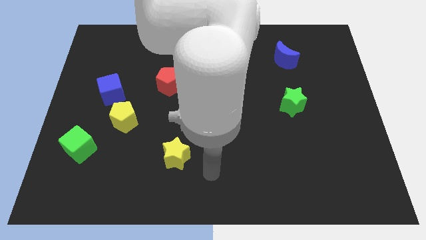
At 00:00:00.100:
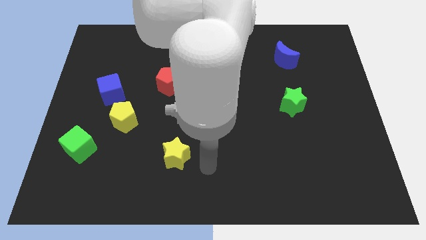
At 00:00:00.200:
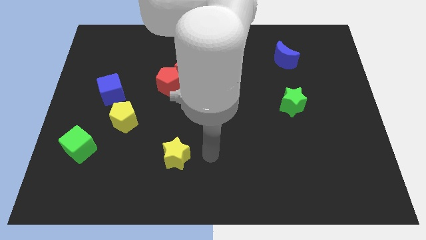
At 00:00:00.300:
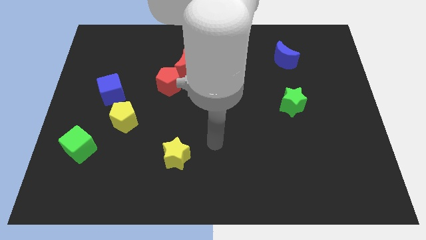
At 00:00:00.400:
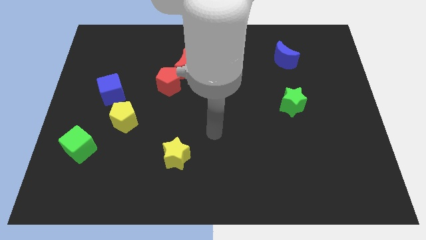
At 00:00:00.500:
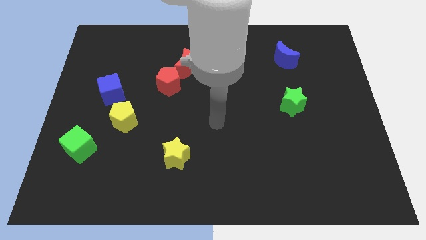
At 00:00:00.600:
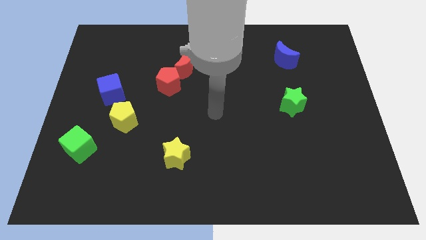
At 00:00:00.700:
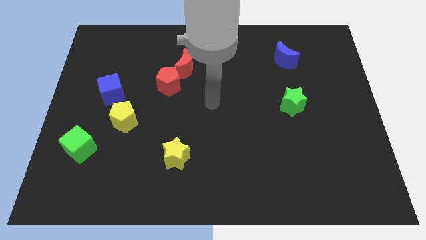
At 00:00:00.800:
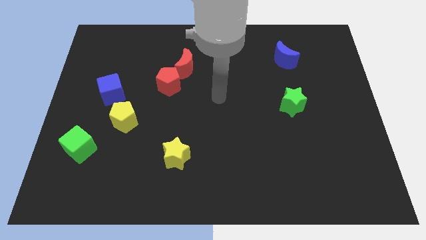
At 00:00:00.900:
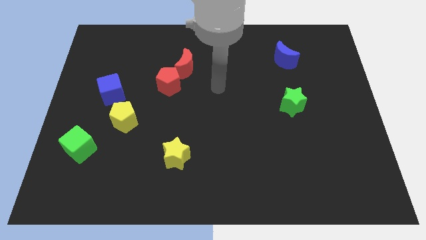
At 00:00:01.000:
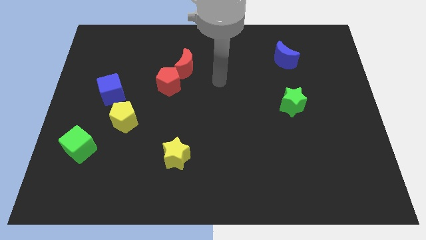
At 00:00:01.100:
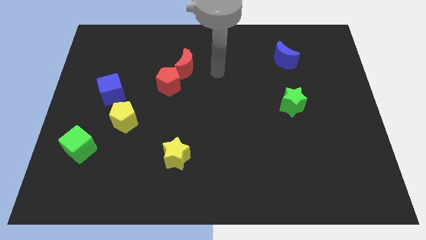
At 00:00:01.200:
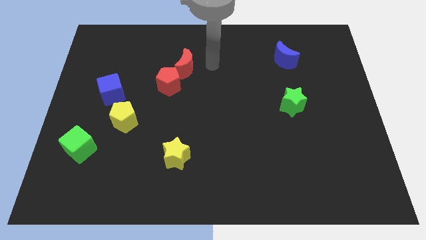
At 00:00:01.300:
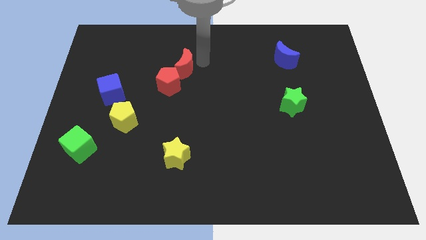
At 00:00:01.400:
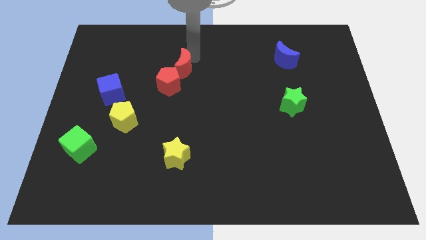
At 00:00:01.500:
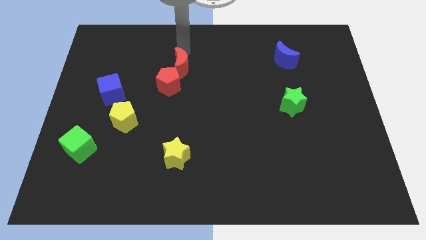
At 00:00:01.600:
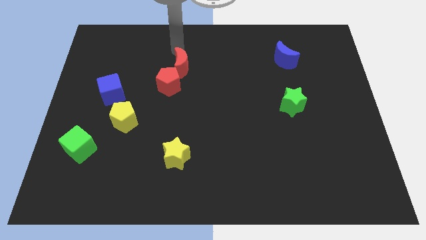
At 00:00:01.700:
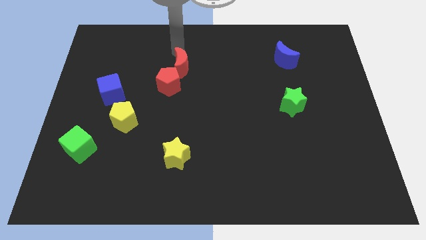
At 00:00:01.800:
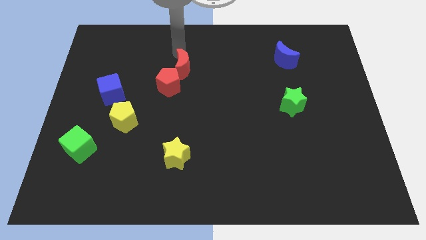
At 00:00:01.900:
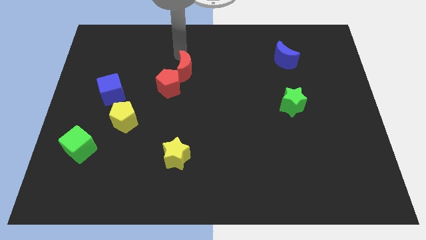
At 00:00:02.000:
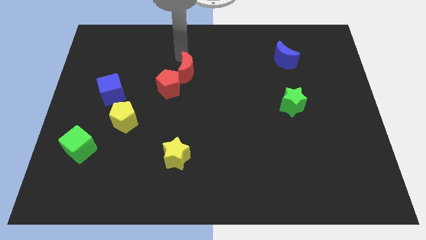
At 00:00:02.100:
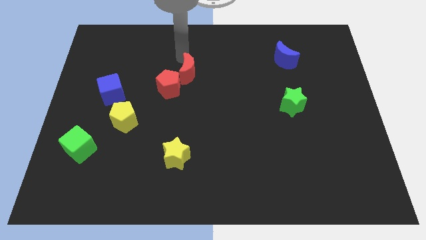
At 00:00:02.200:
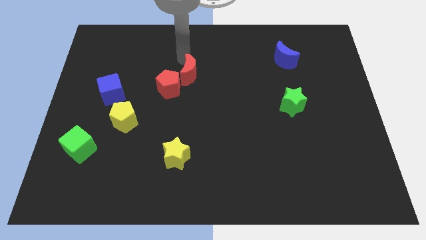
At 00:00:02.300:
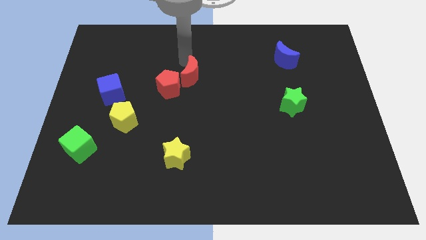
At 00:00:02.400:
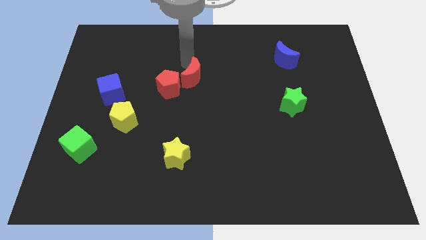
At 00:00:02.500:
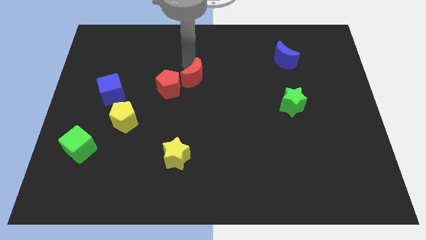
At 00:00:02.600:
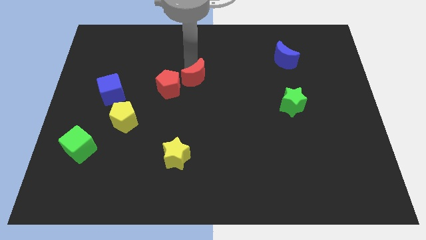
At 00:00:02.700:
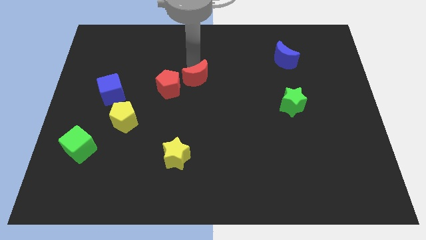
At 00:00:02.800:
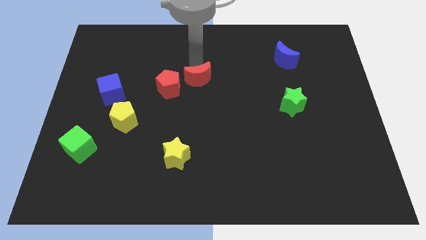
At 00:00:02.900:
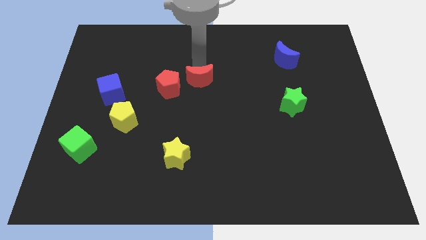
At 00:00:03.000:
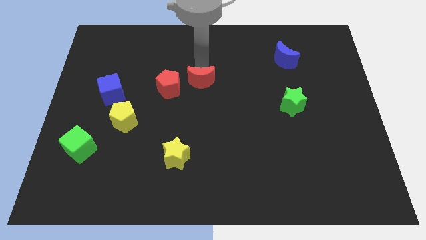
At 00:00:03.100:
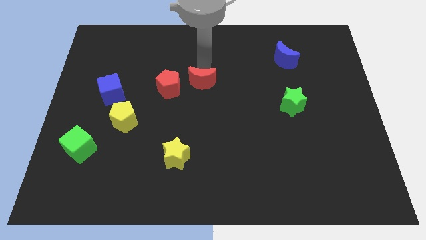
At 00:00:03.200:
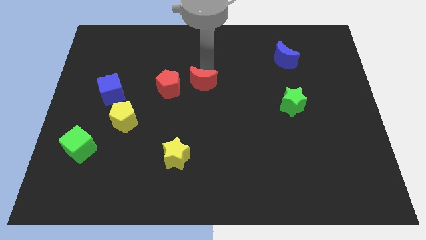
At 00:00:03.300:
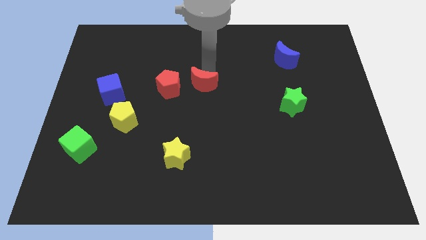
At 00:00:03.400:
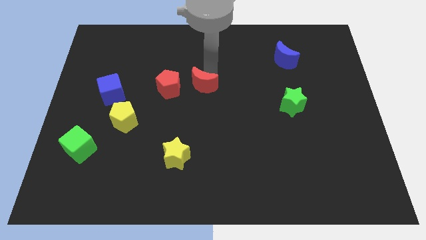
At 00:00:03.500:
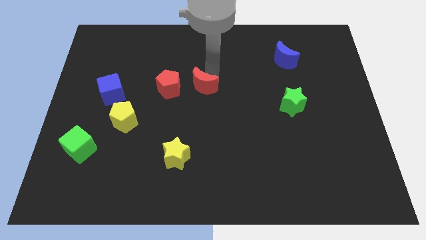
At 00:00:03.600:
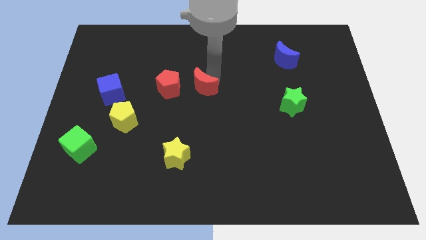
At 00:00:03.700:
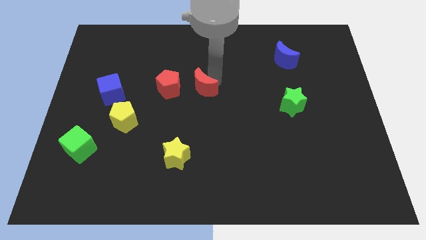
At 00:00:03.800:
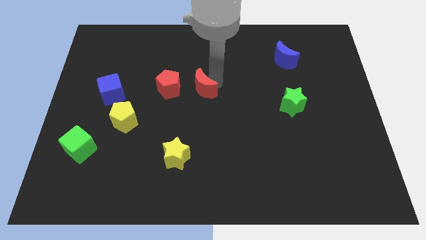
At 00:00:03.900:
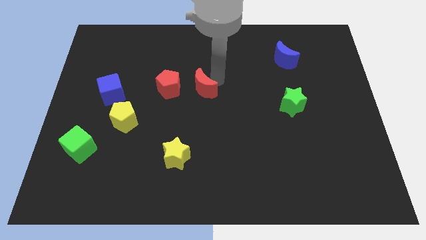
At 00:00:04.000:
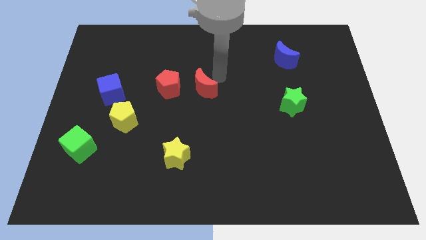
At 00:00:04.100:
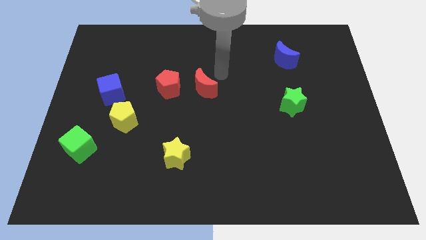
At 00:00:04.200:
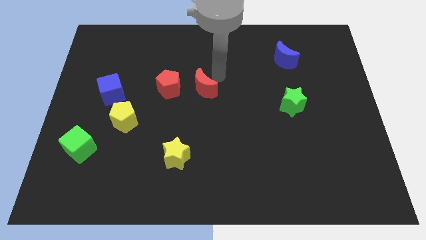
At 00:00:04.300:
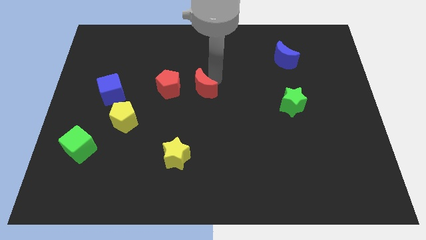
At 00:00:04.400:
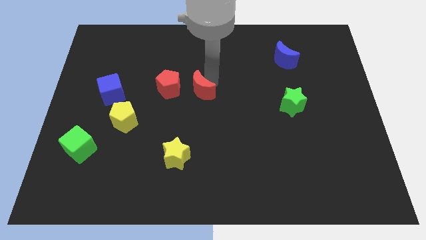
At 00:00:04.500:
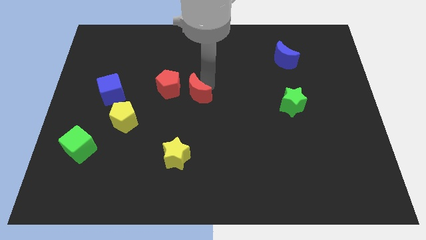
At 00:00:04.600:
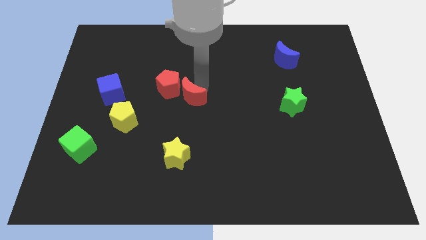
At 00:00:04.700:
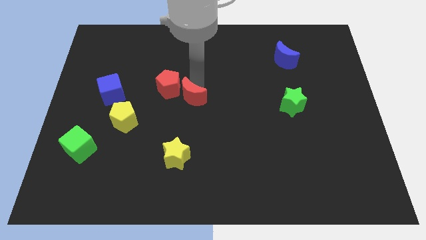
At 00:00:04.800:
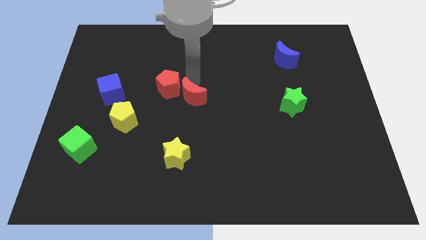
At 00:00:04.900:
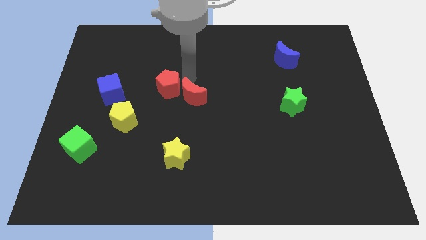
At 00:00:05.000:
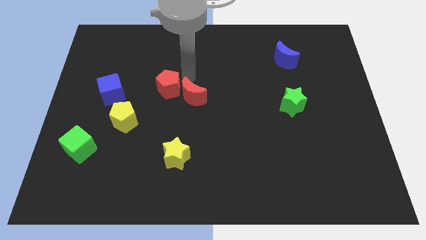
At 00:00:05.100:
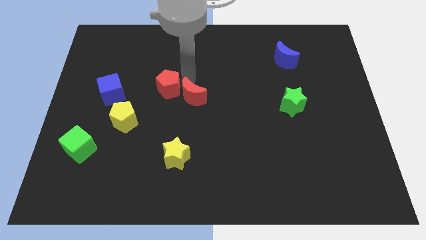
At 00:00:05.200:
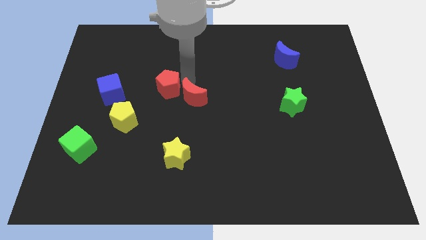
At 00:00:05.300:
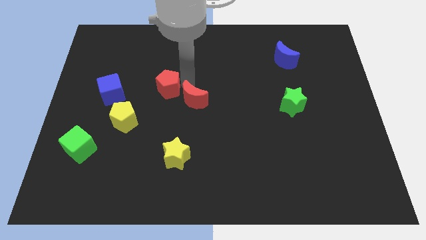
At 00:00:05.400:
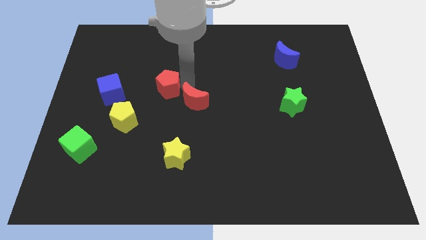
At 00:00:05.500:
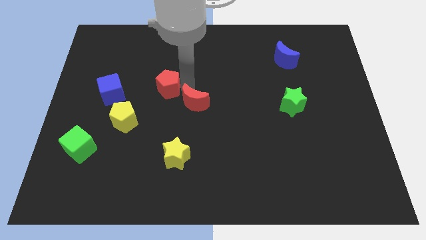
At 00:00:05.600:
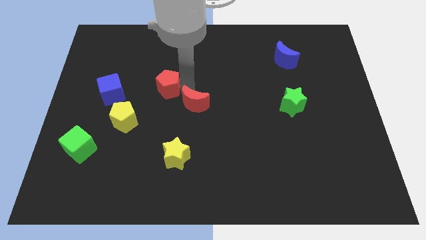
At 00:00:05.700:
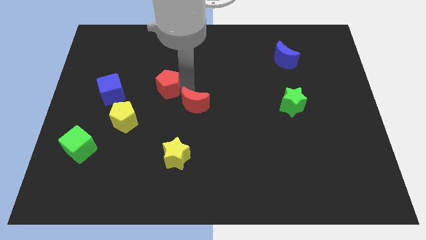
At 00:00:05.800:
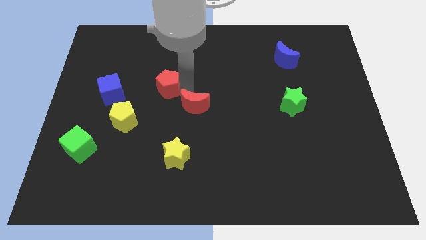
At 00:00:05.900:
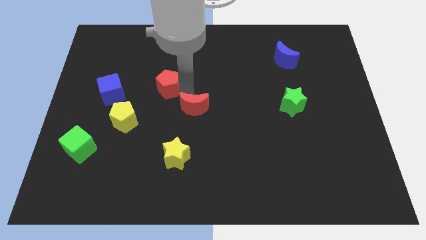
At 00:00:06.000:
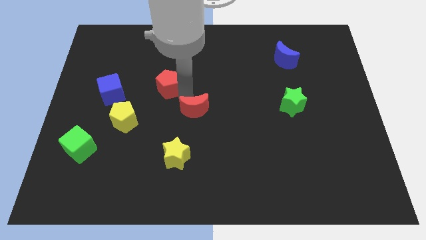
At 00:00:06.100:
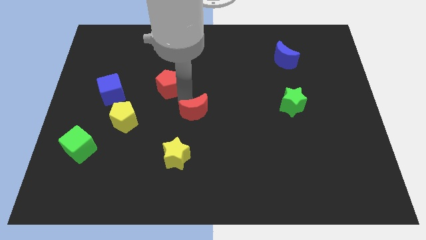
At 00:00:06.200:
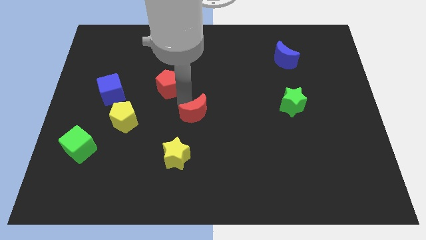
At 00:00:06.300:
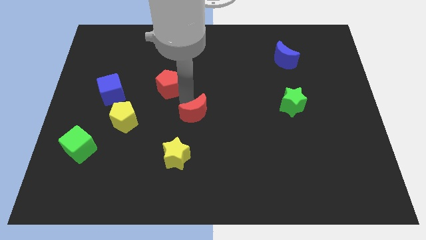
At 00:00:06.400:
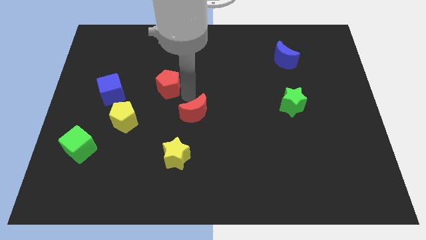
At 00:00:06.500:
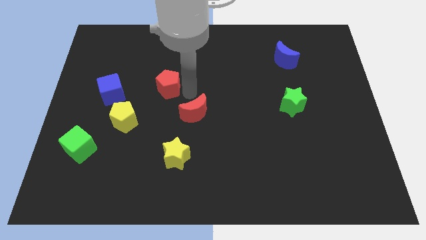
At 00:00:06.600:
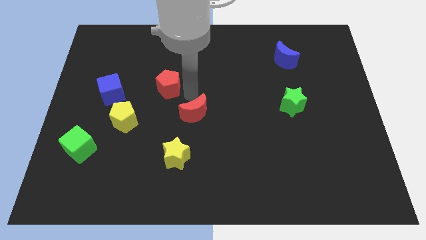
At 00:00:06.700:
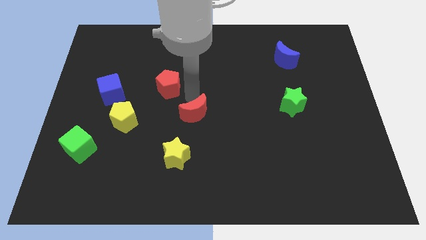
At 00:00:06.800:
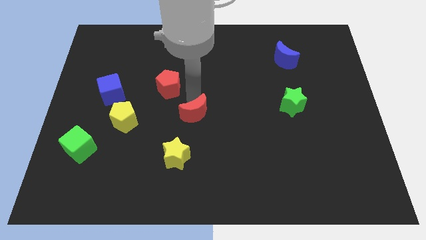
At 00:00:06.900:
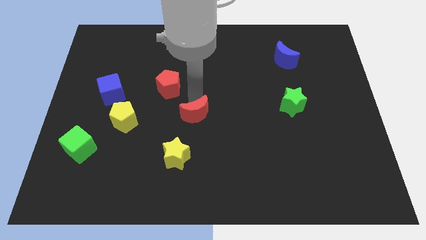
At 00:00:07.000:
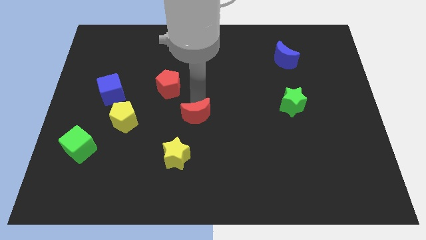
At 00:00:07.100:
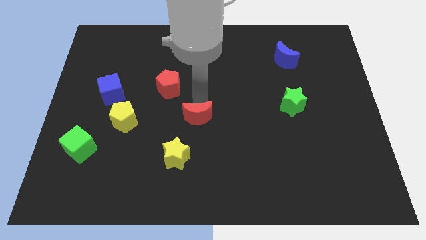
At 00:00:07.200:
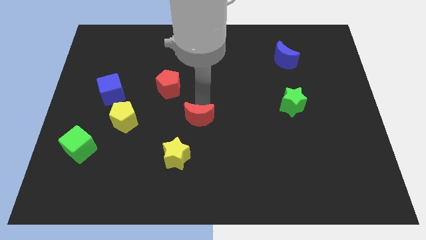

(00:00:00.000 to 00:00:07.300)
put the red moon to the top right of the yellow star
